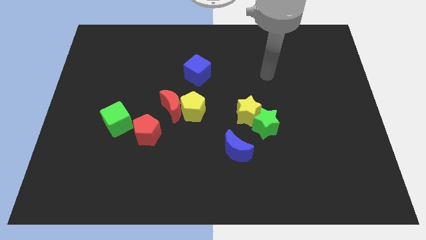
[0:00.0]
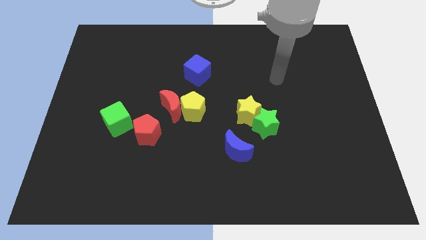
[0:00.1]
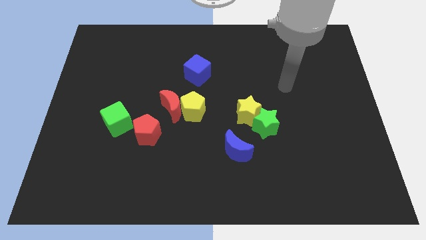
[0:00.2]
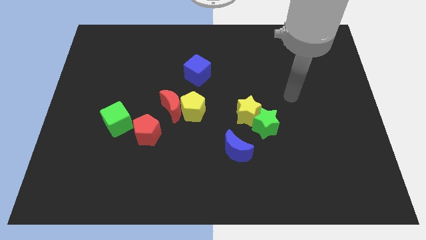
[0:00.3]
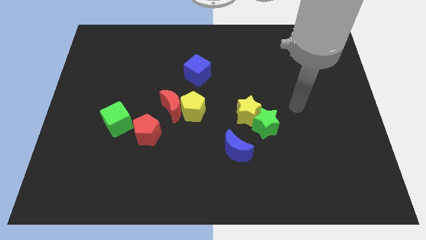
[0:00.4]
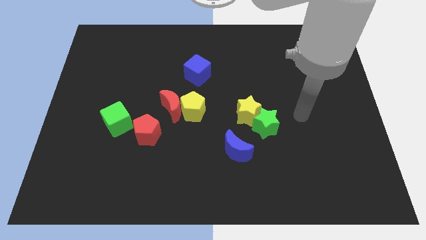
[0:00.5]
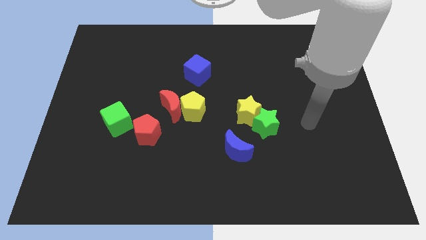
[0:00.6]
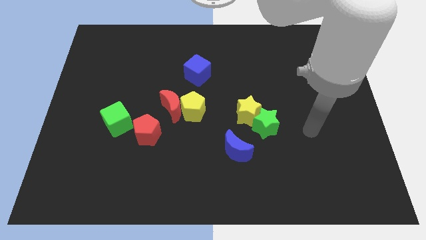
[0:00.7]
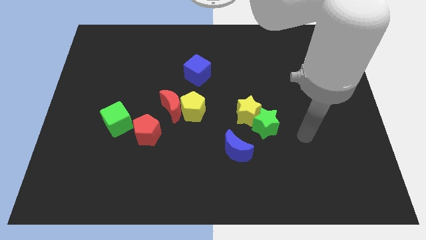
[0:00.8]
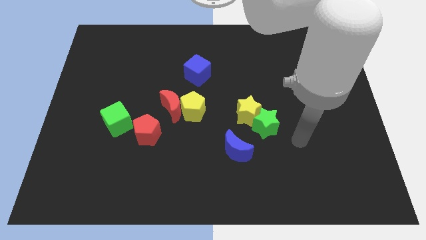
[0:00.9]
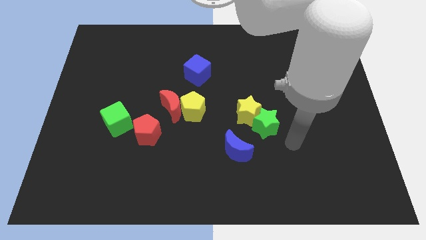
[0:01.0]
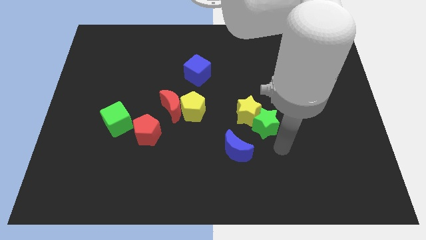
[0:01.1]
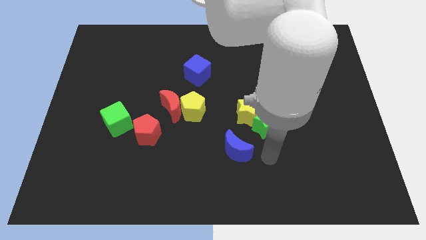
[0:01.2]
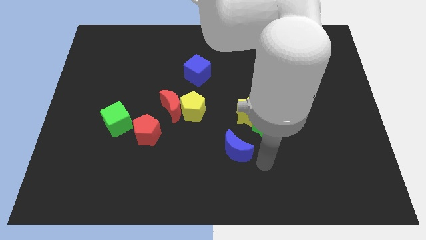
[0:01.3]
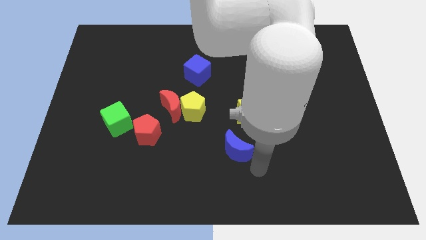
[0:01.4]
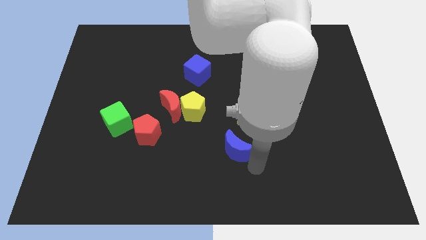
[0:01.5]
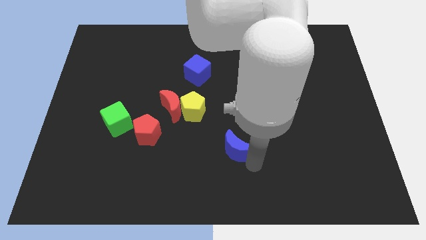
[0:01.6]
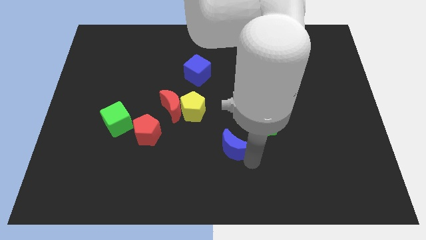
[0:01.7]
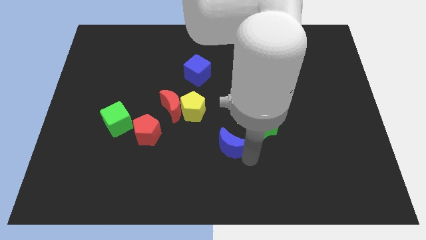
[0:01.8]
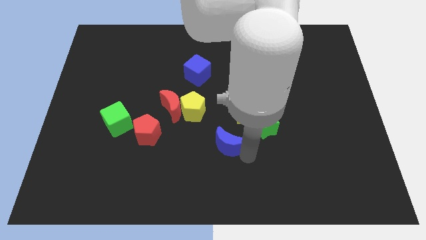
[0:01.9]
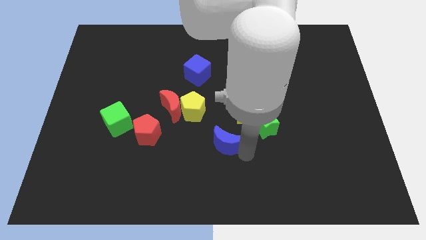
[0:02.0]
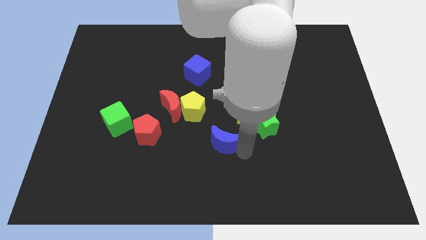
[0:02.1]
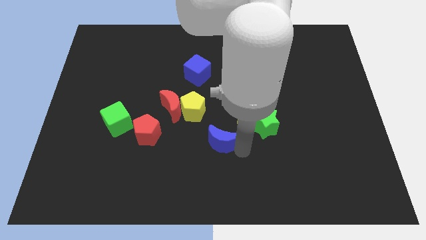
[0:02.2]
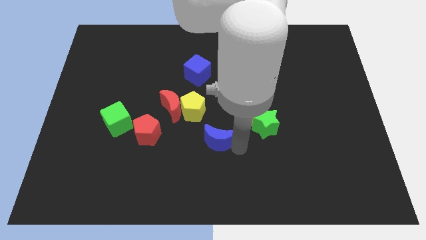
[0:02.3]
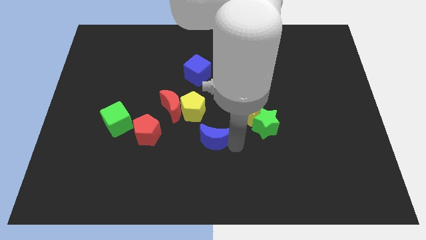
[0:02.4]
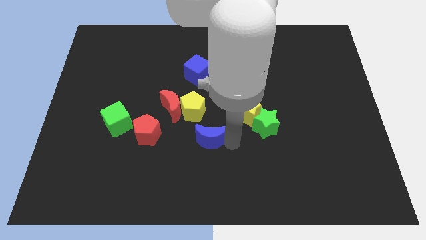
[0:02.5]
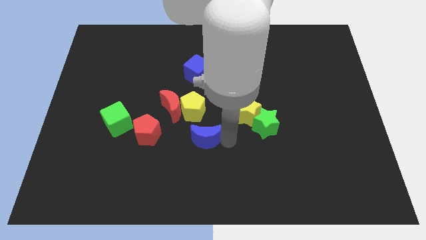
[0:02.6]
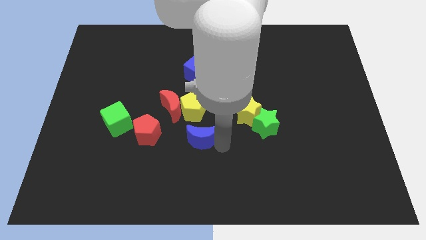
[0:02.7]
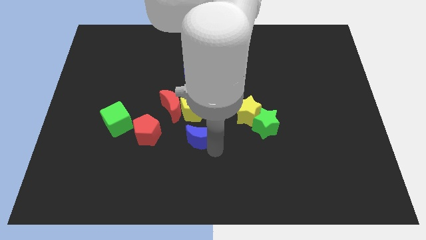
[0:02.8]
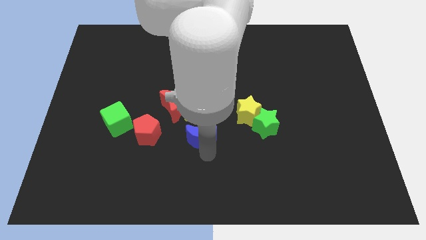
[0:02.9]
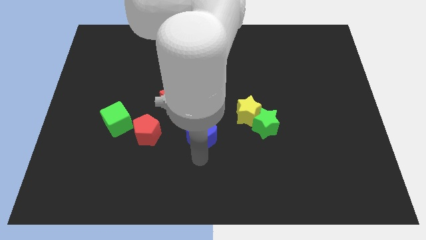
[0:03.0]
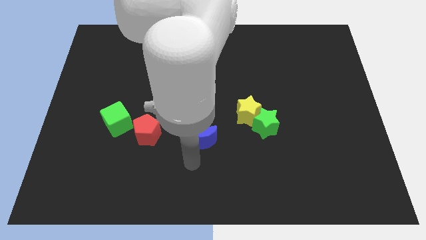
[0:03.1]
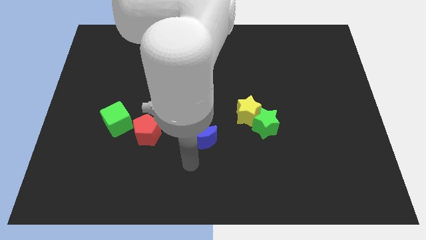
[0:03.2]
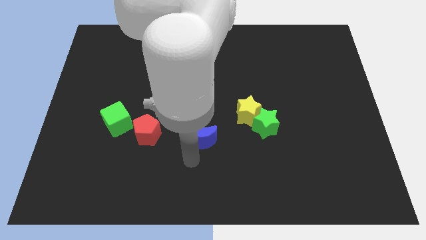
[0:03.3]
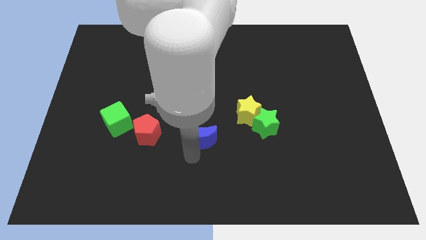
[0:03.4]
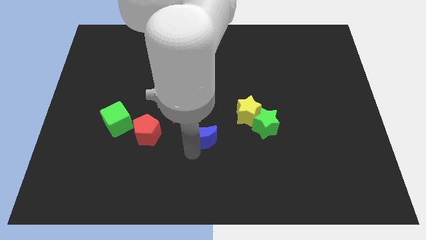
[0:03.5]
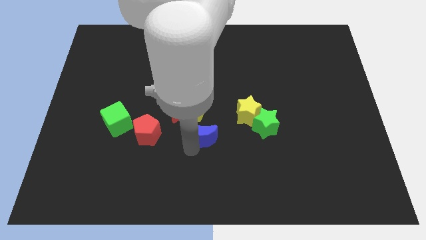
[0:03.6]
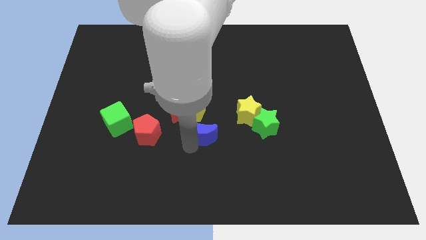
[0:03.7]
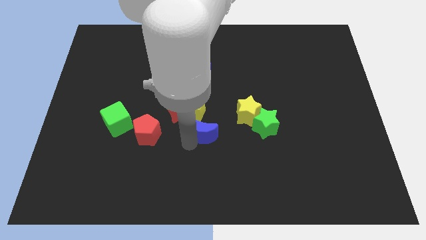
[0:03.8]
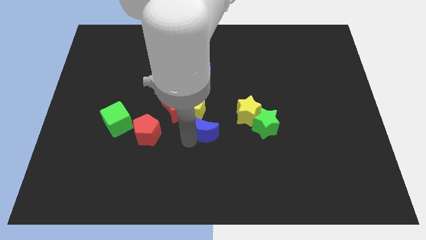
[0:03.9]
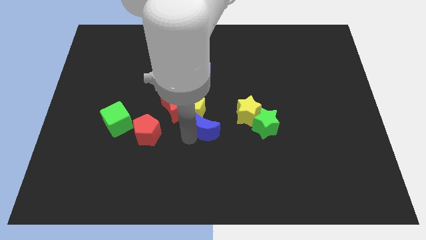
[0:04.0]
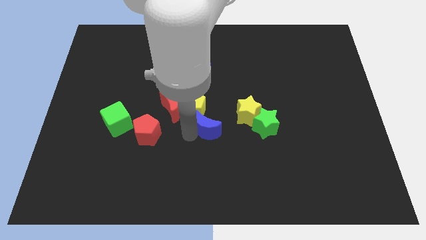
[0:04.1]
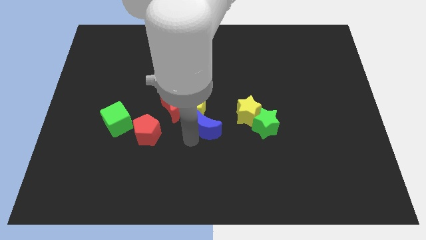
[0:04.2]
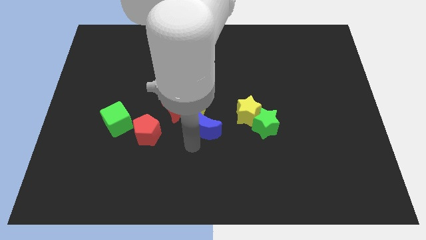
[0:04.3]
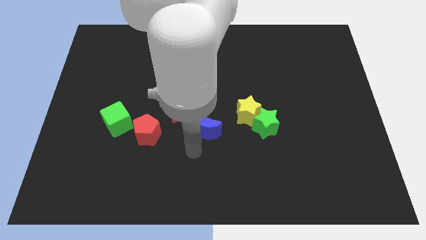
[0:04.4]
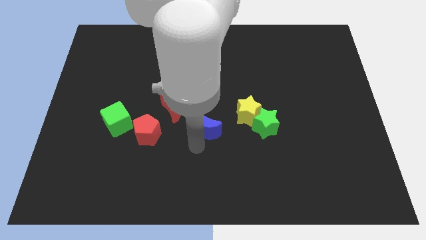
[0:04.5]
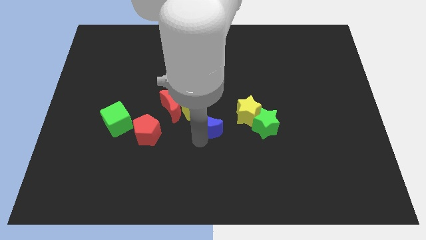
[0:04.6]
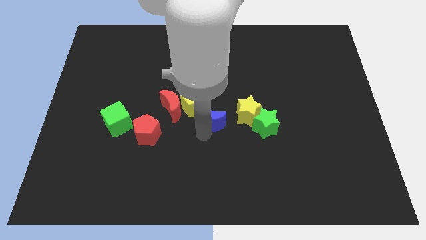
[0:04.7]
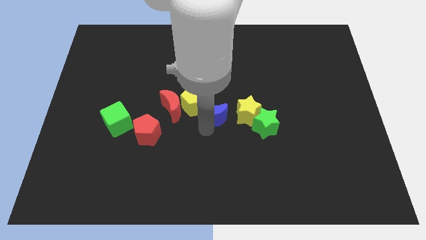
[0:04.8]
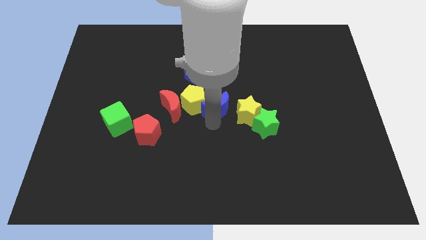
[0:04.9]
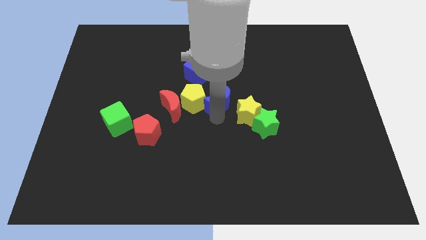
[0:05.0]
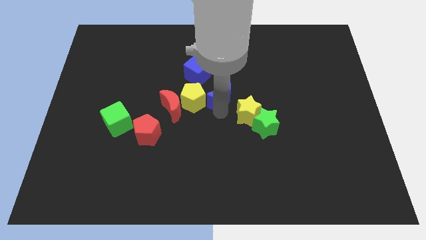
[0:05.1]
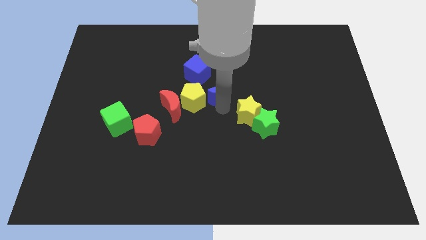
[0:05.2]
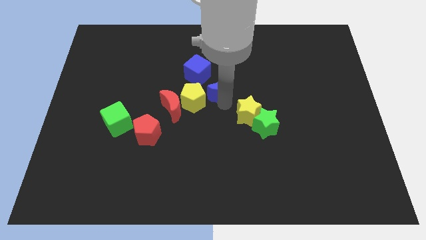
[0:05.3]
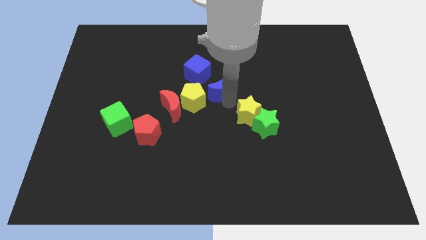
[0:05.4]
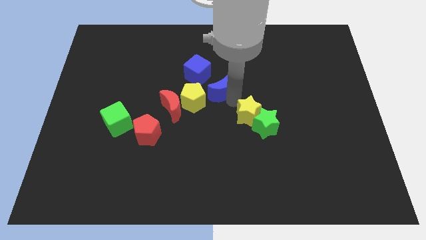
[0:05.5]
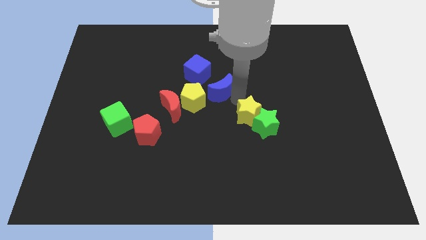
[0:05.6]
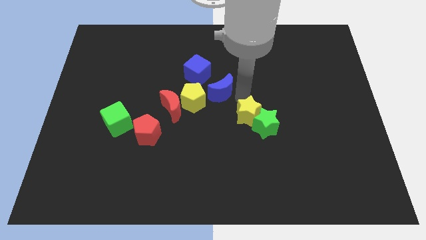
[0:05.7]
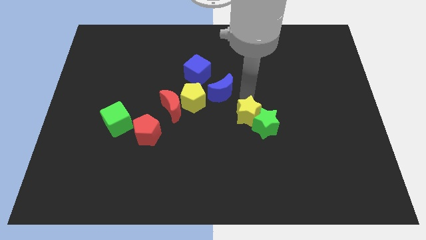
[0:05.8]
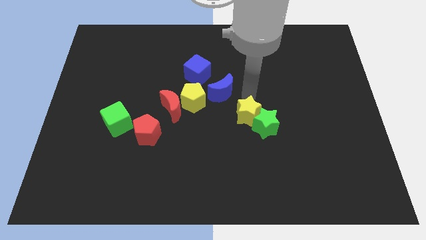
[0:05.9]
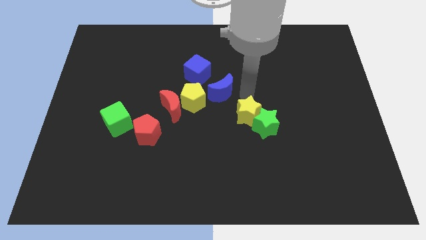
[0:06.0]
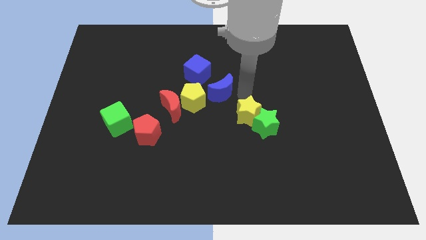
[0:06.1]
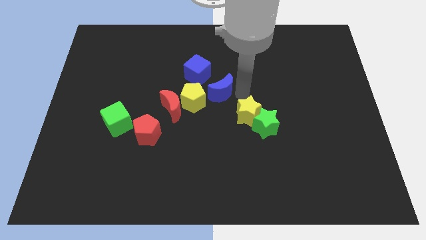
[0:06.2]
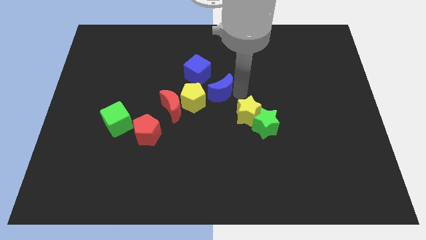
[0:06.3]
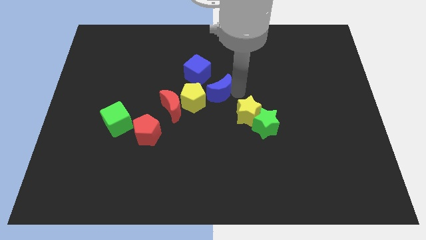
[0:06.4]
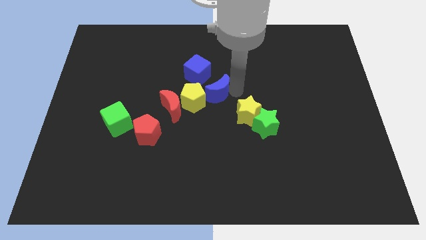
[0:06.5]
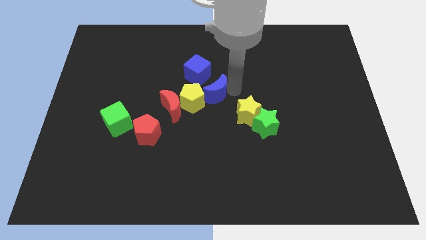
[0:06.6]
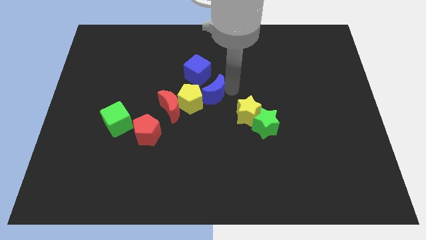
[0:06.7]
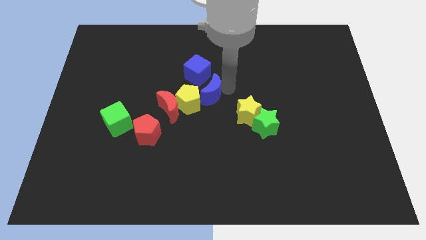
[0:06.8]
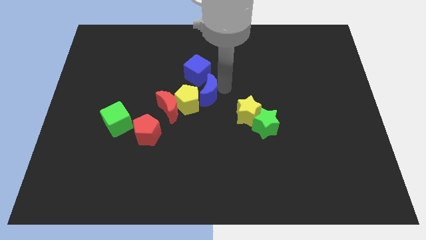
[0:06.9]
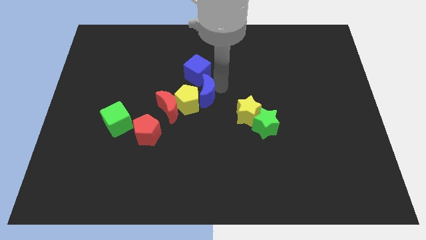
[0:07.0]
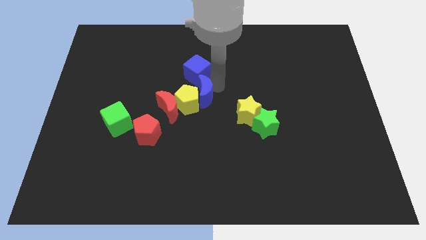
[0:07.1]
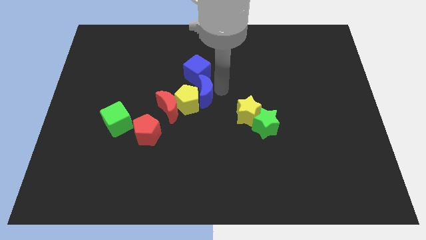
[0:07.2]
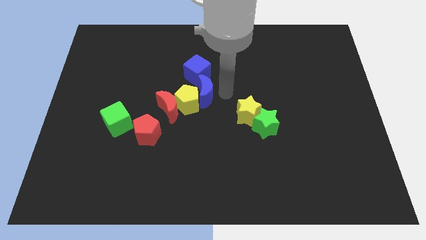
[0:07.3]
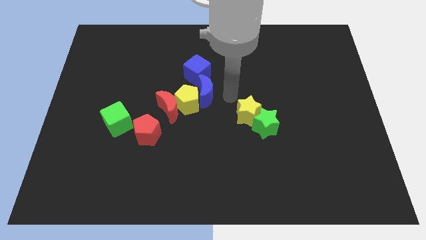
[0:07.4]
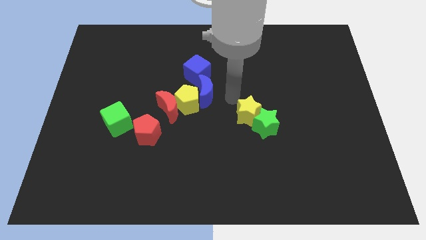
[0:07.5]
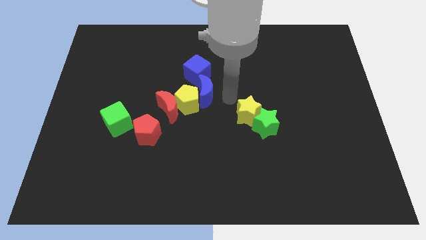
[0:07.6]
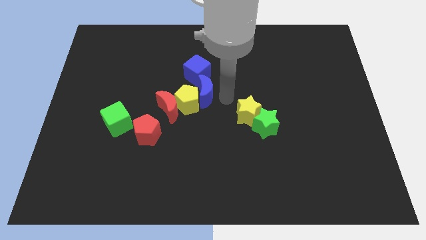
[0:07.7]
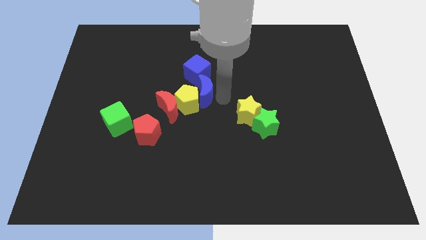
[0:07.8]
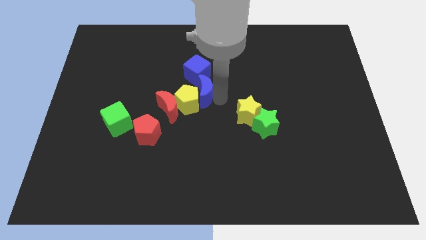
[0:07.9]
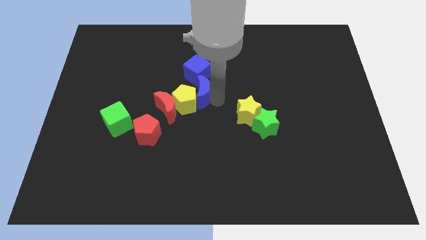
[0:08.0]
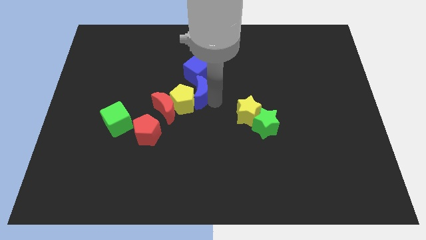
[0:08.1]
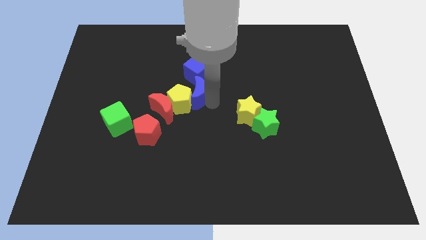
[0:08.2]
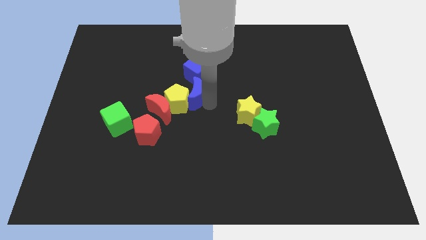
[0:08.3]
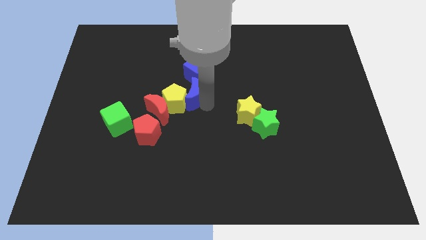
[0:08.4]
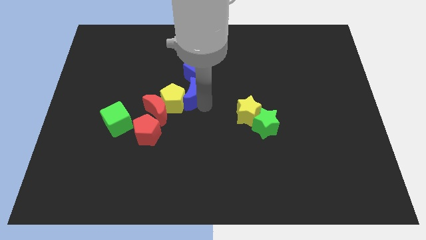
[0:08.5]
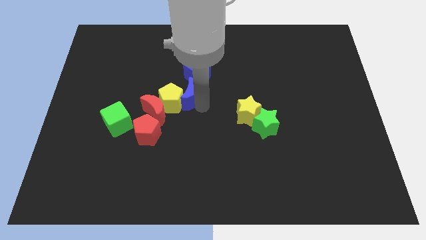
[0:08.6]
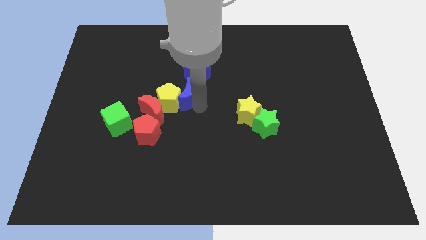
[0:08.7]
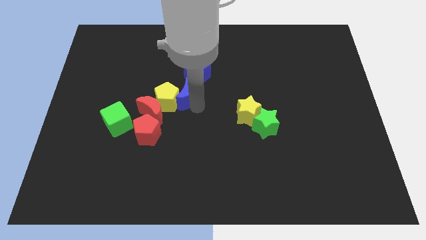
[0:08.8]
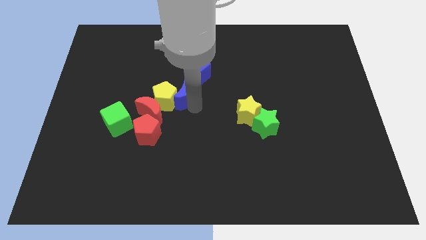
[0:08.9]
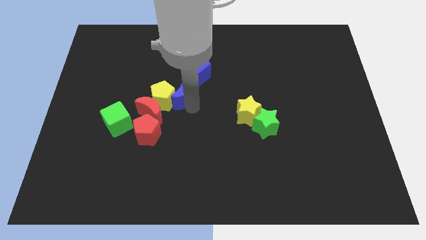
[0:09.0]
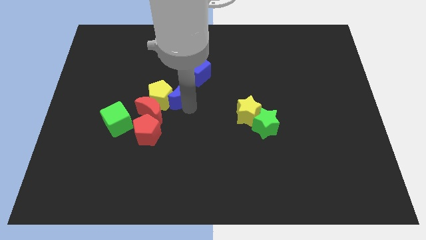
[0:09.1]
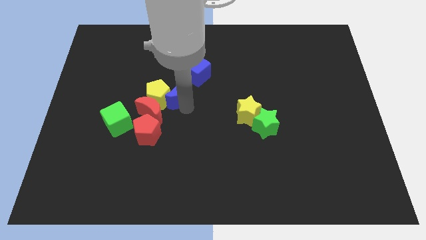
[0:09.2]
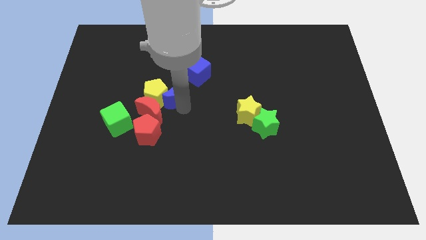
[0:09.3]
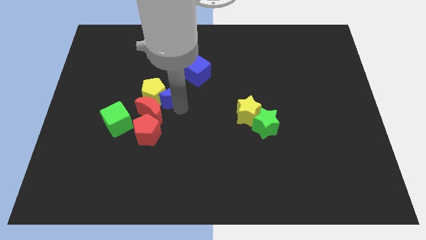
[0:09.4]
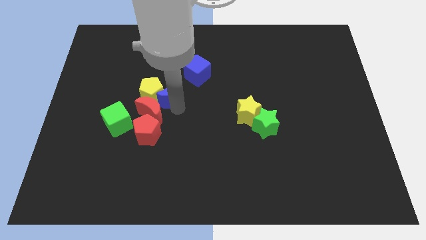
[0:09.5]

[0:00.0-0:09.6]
put the blue moon to the top of the red moon
